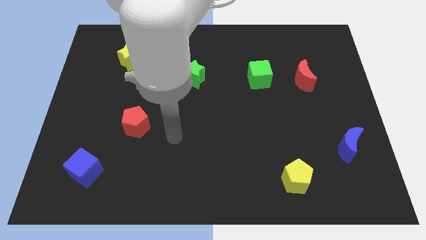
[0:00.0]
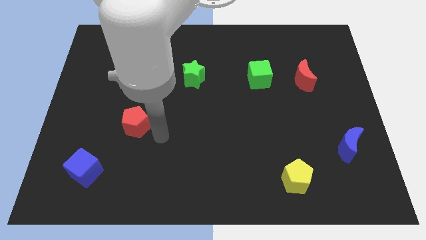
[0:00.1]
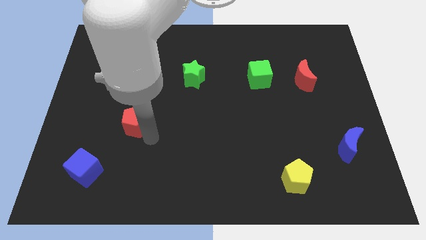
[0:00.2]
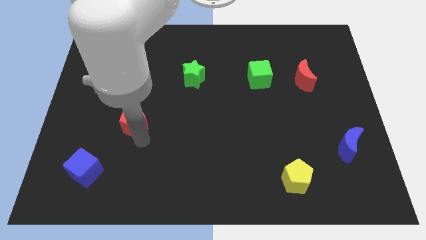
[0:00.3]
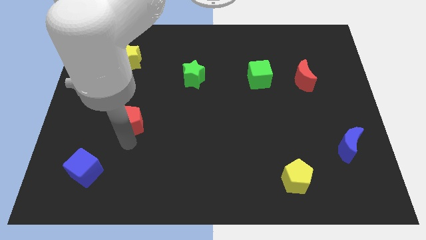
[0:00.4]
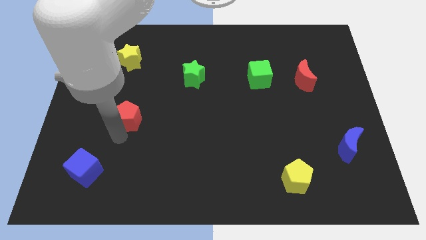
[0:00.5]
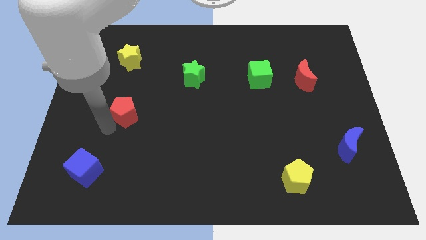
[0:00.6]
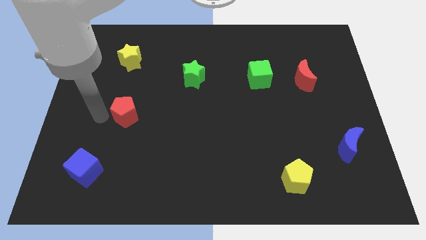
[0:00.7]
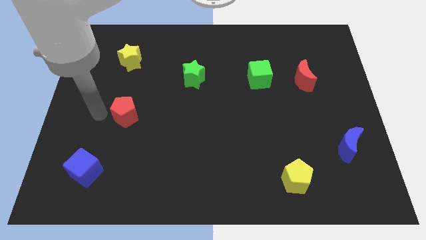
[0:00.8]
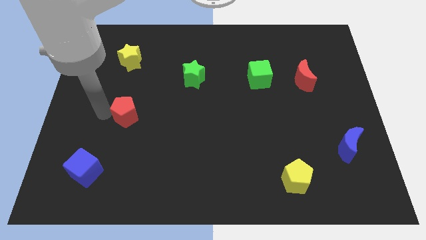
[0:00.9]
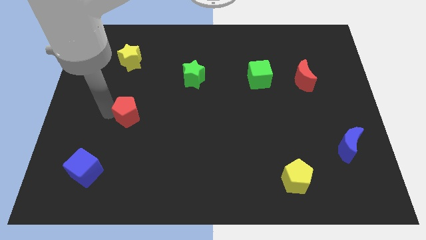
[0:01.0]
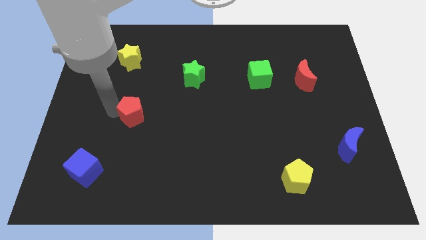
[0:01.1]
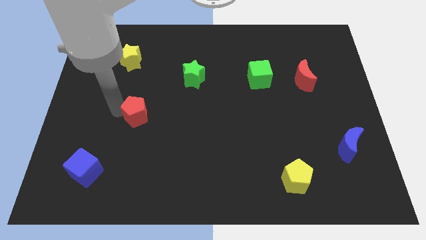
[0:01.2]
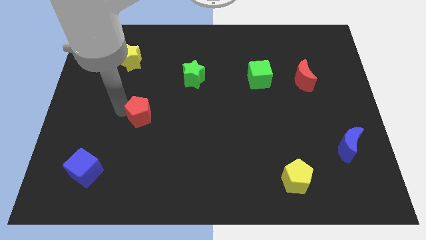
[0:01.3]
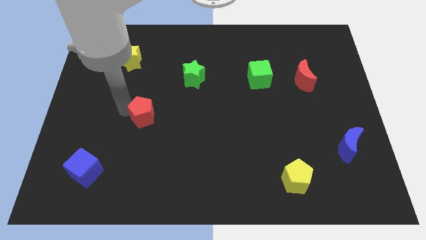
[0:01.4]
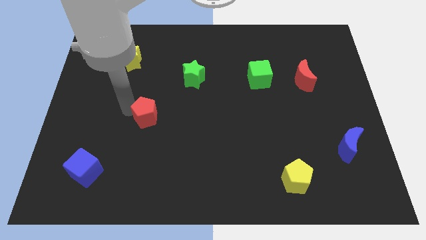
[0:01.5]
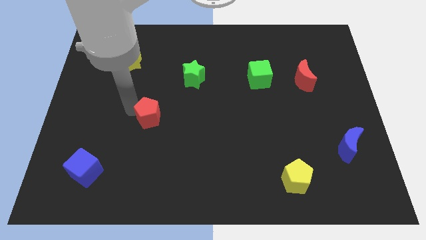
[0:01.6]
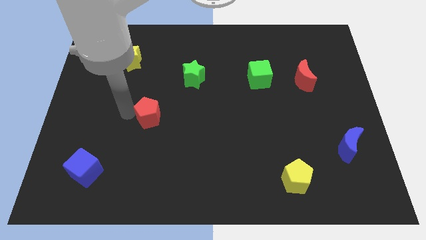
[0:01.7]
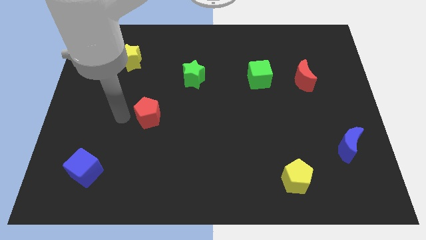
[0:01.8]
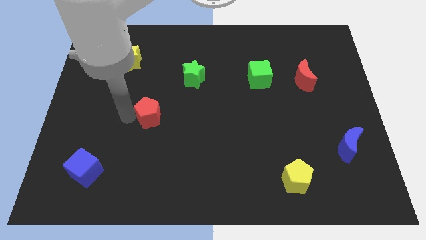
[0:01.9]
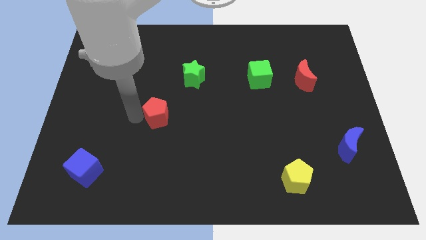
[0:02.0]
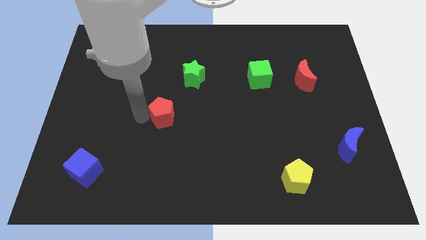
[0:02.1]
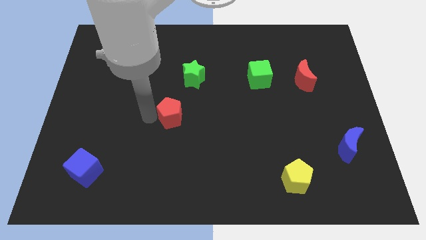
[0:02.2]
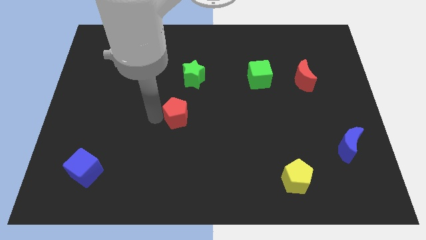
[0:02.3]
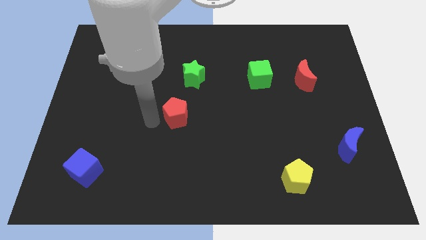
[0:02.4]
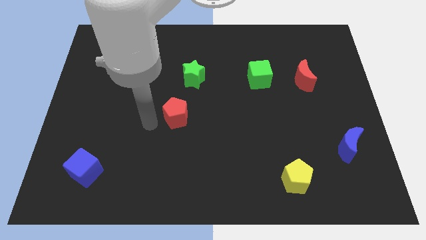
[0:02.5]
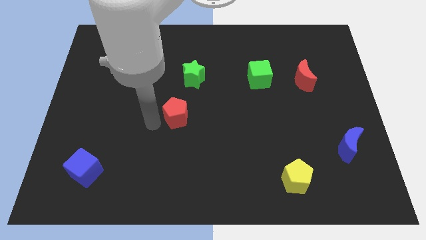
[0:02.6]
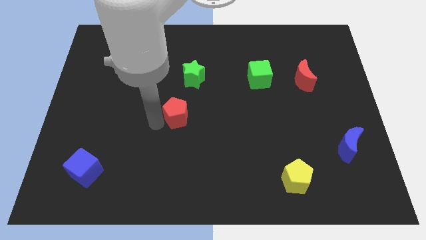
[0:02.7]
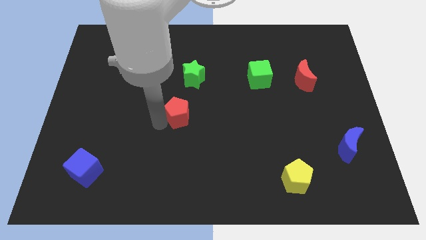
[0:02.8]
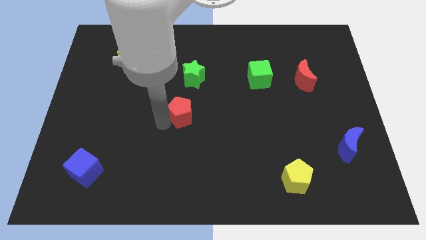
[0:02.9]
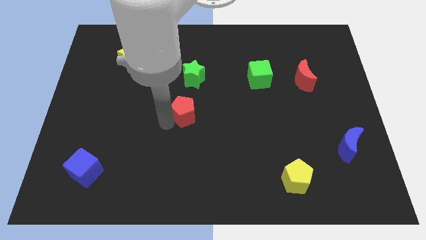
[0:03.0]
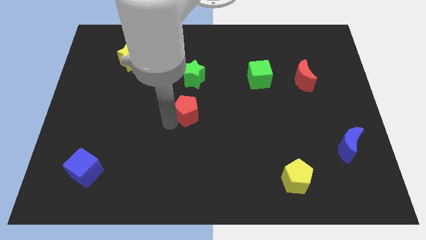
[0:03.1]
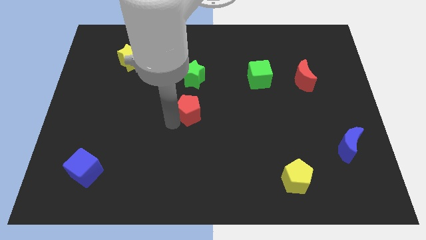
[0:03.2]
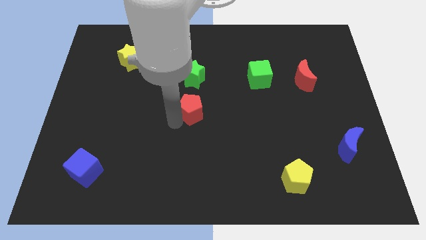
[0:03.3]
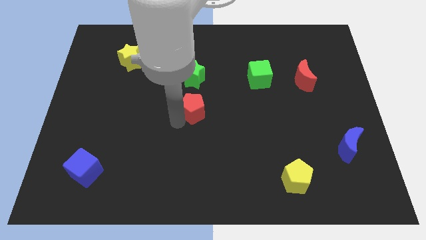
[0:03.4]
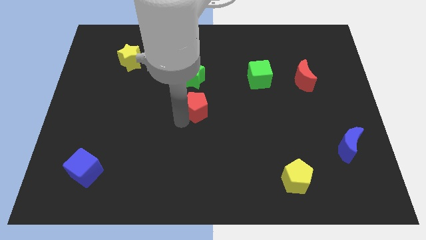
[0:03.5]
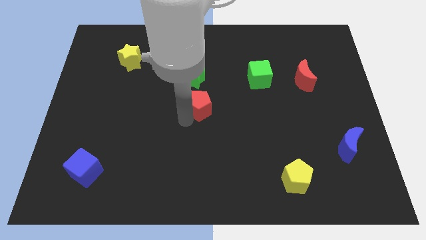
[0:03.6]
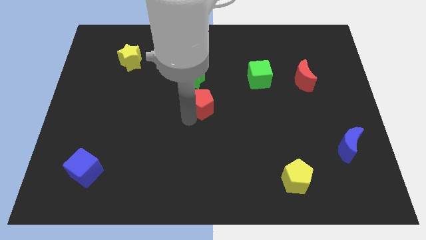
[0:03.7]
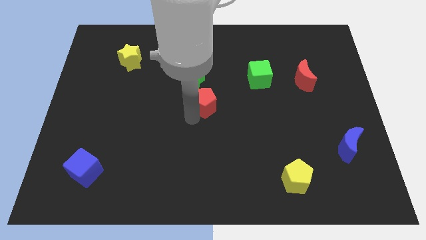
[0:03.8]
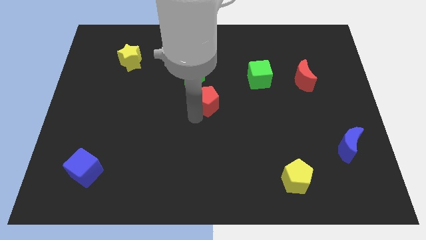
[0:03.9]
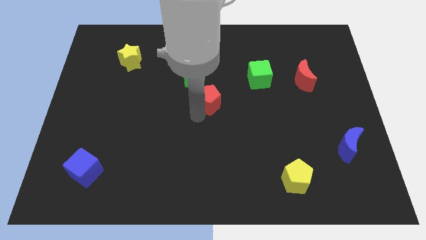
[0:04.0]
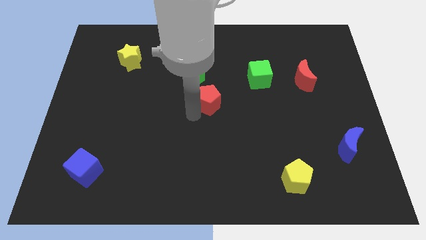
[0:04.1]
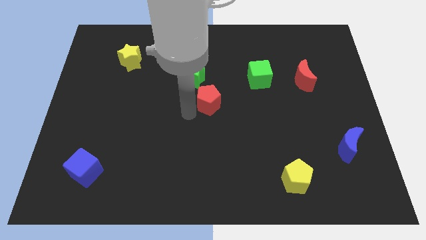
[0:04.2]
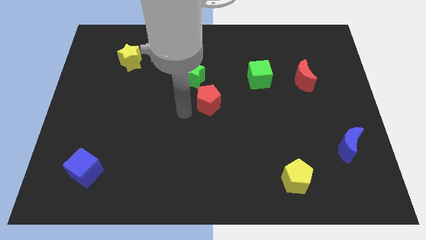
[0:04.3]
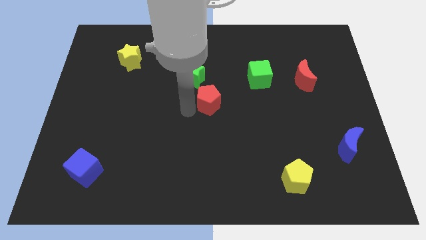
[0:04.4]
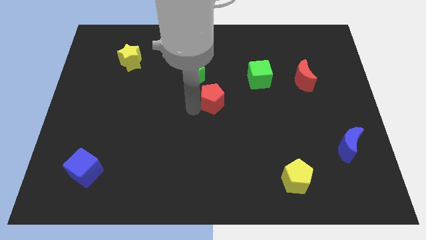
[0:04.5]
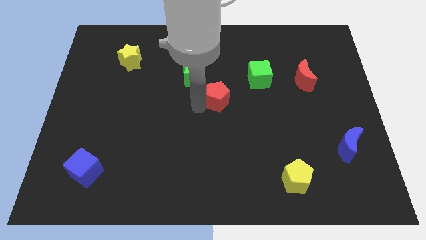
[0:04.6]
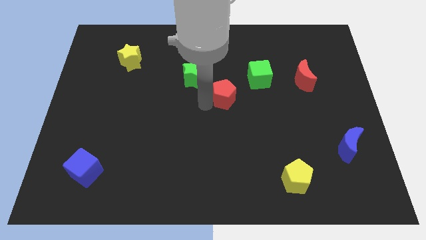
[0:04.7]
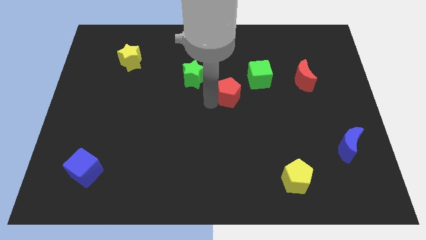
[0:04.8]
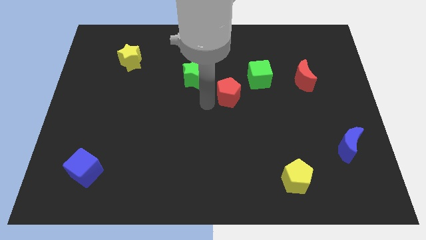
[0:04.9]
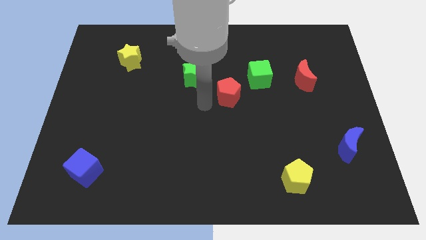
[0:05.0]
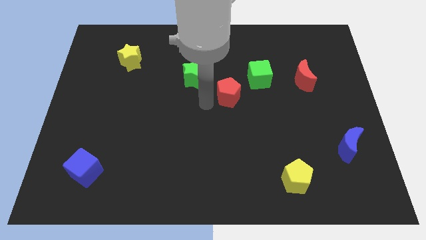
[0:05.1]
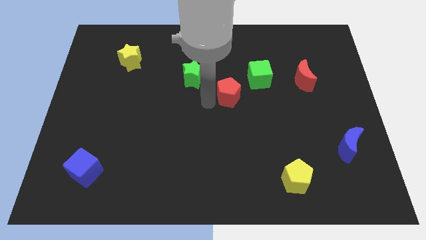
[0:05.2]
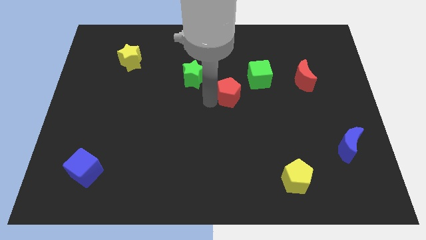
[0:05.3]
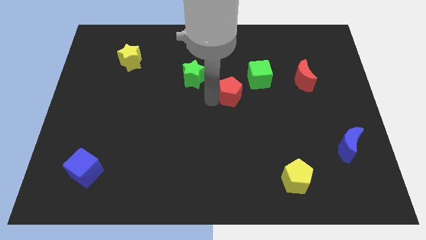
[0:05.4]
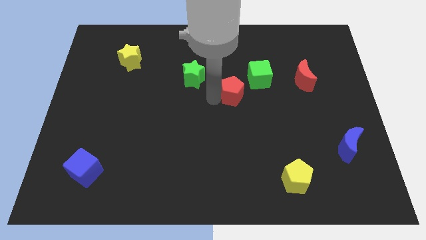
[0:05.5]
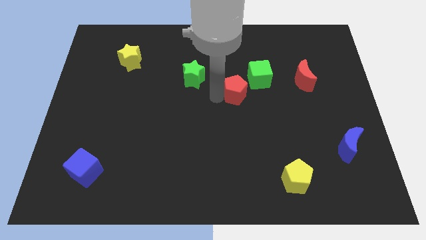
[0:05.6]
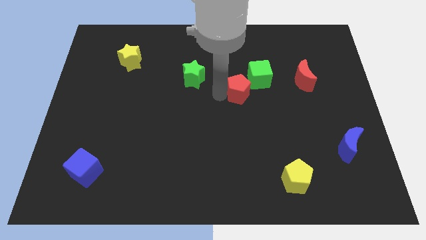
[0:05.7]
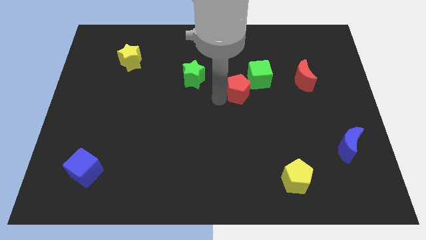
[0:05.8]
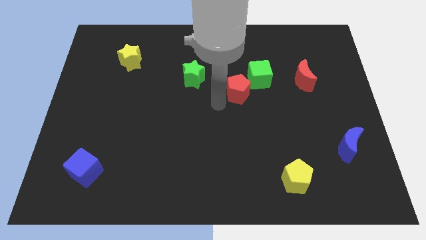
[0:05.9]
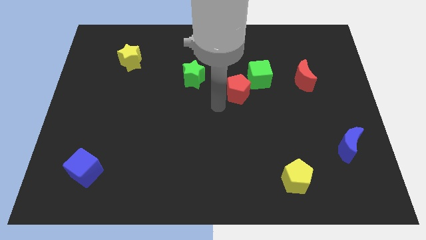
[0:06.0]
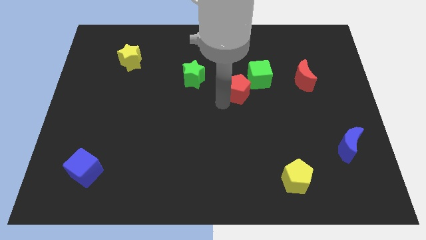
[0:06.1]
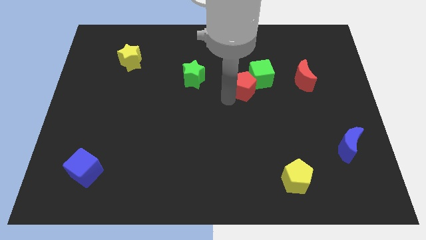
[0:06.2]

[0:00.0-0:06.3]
push the red pentagon next to the green cube

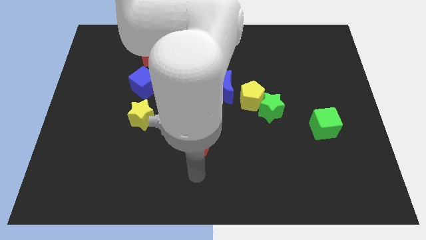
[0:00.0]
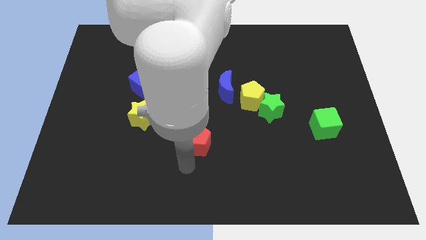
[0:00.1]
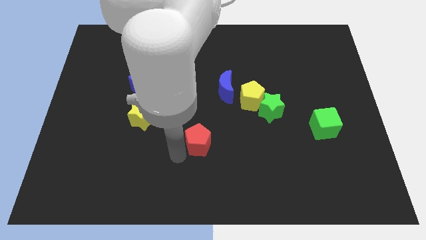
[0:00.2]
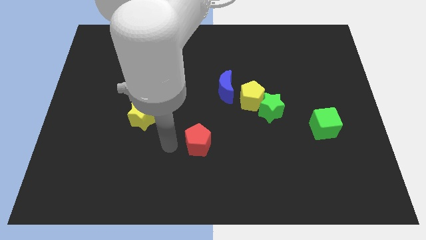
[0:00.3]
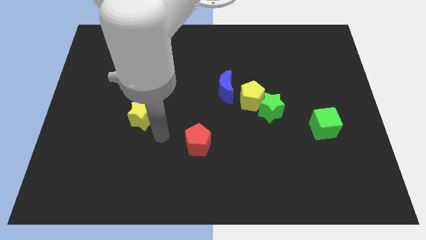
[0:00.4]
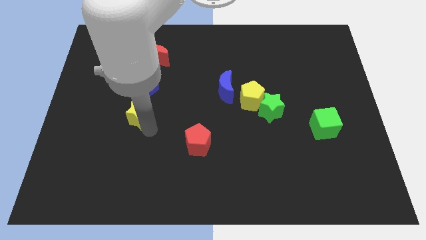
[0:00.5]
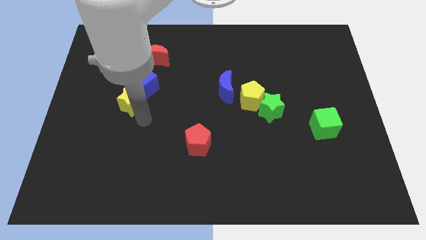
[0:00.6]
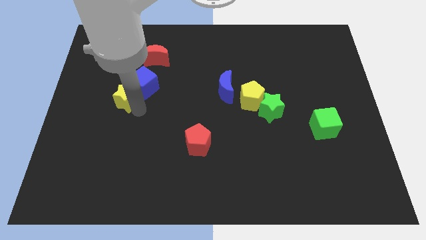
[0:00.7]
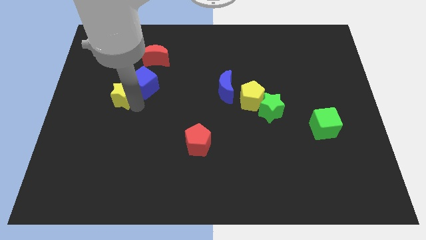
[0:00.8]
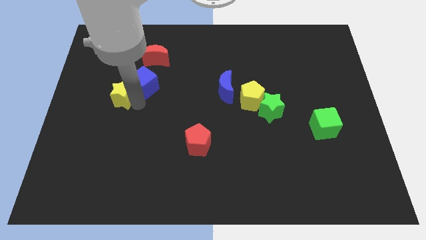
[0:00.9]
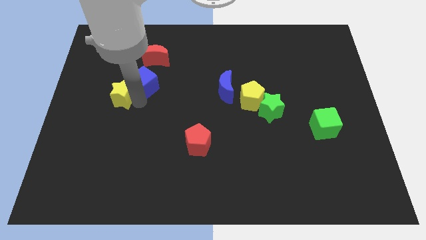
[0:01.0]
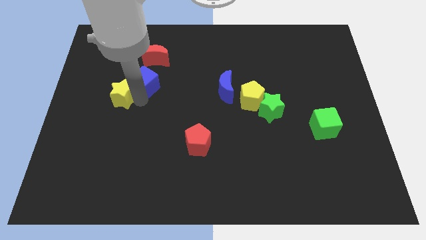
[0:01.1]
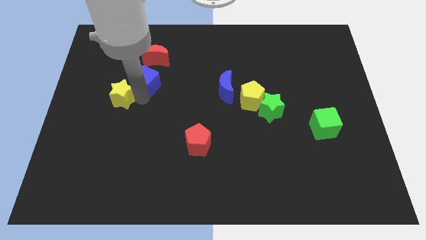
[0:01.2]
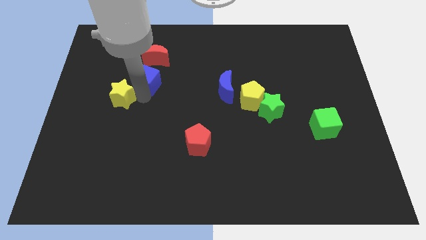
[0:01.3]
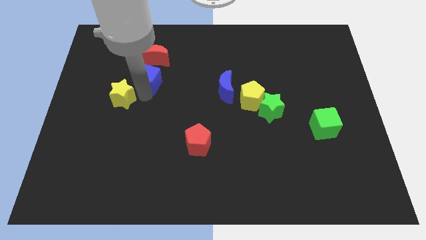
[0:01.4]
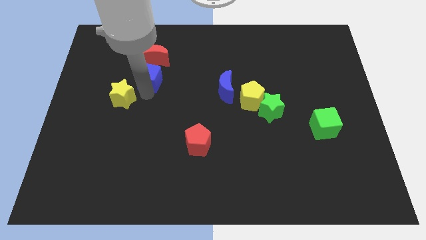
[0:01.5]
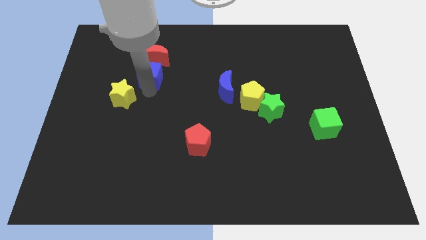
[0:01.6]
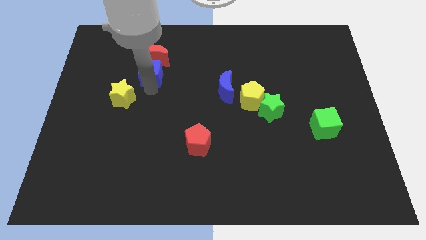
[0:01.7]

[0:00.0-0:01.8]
push the blue cube towards the red moon
